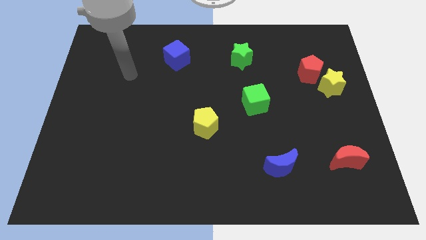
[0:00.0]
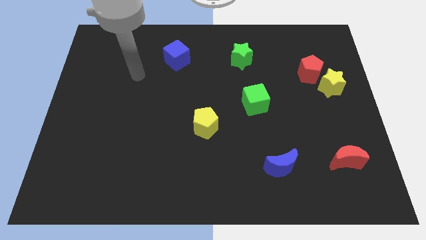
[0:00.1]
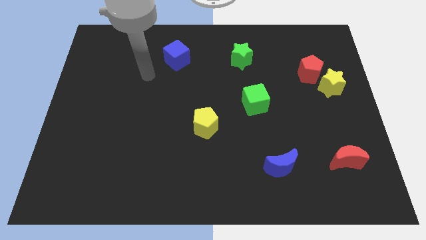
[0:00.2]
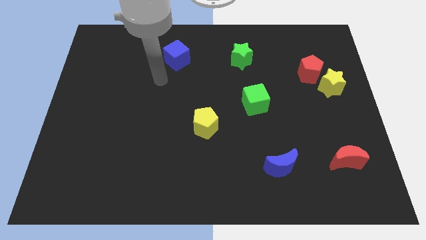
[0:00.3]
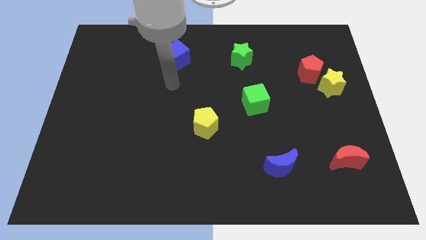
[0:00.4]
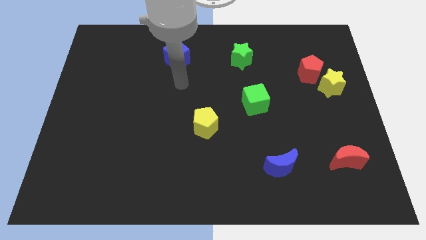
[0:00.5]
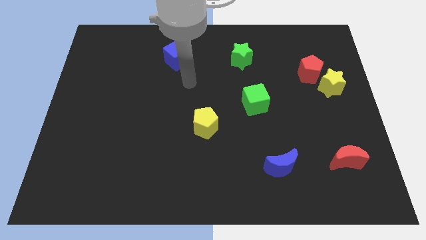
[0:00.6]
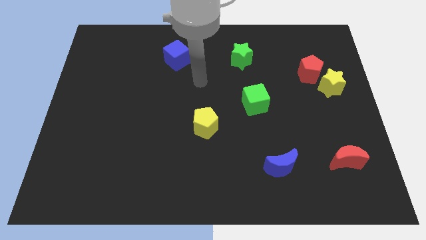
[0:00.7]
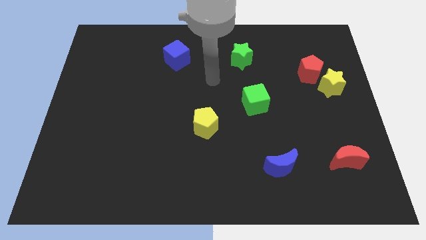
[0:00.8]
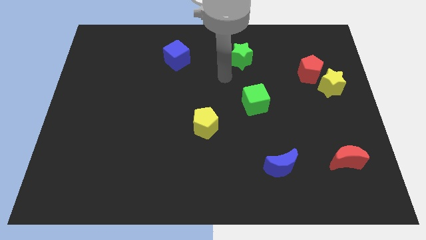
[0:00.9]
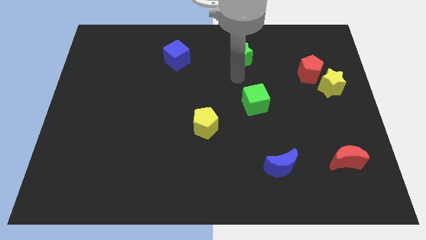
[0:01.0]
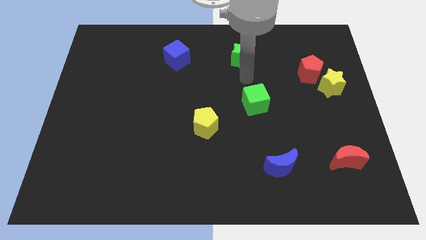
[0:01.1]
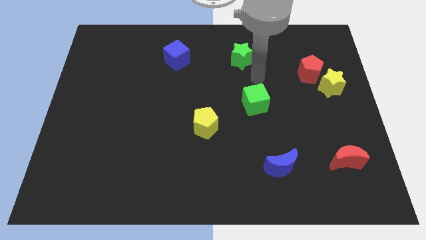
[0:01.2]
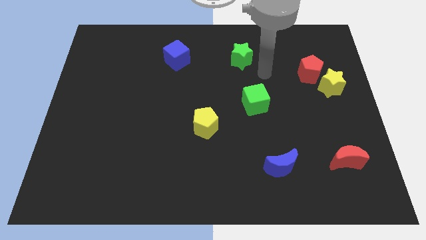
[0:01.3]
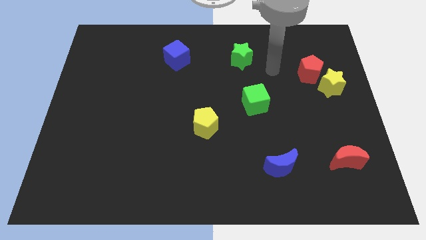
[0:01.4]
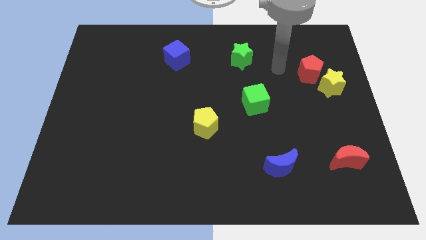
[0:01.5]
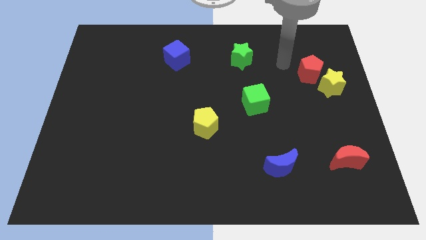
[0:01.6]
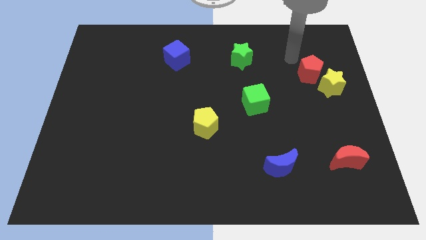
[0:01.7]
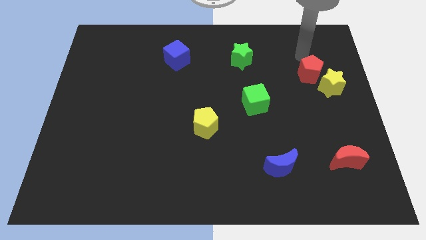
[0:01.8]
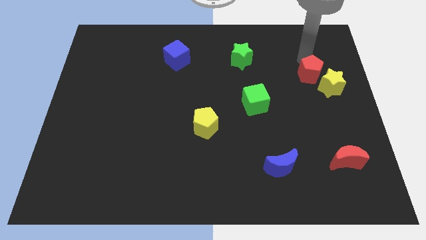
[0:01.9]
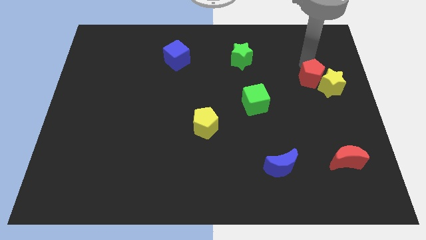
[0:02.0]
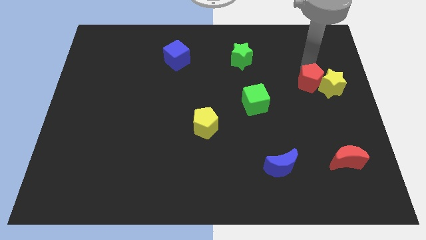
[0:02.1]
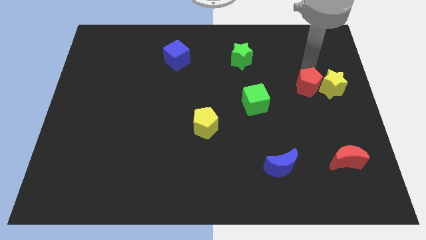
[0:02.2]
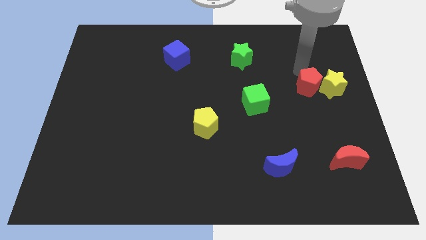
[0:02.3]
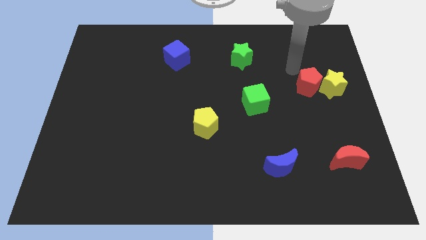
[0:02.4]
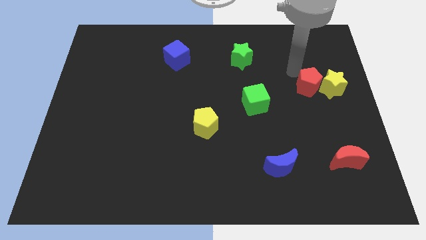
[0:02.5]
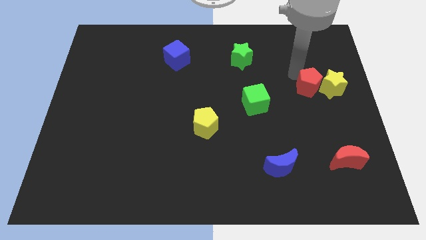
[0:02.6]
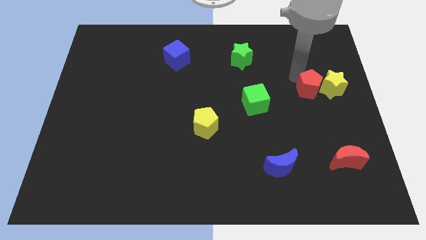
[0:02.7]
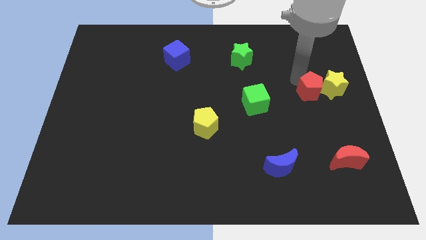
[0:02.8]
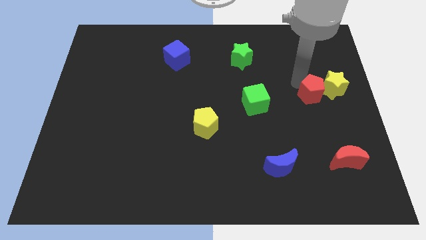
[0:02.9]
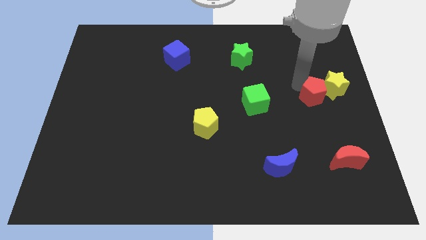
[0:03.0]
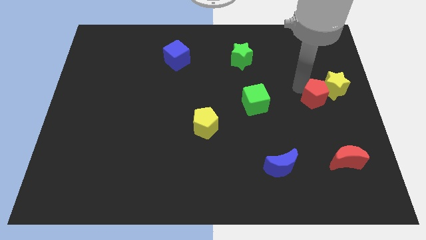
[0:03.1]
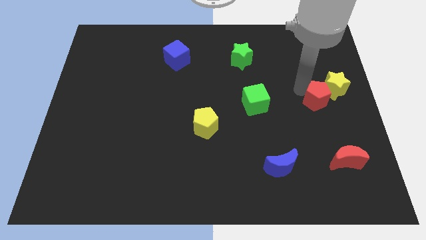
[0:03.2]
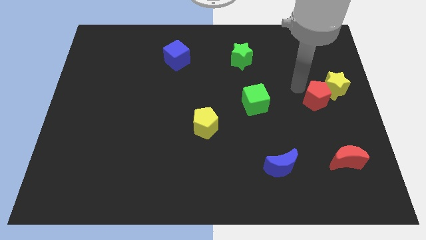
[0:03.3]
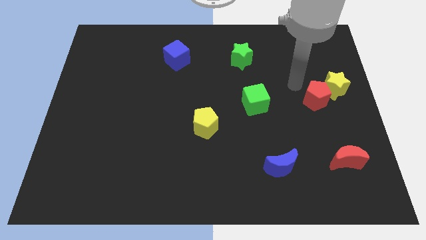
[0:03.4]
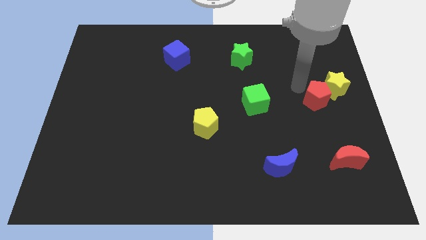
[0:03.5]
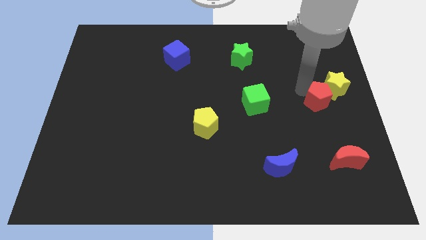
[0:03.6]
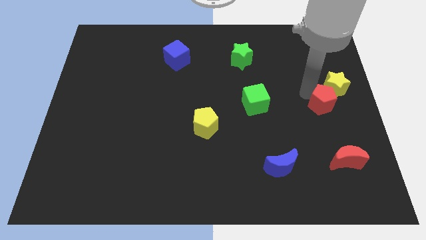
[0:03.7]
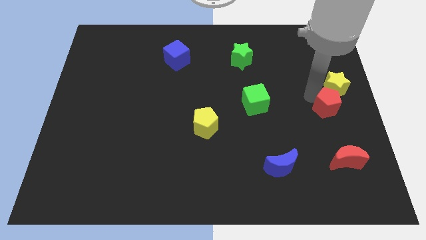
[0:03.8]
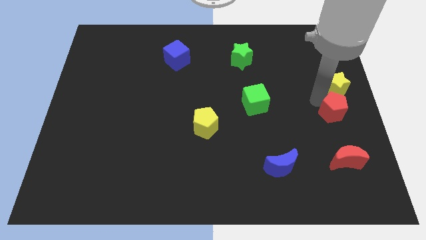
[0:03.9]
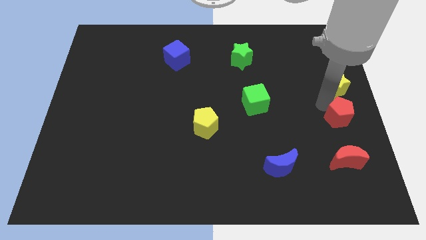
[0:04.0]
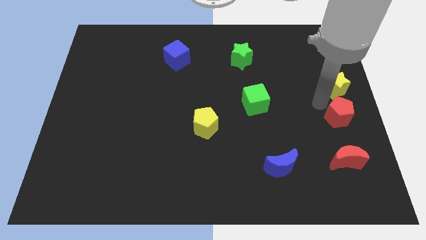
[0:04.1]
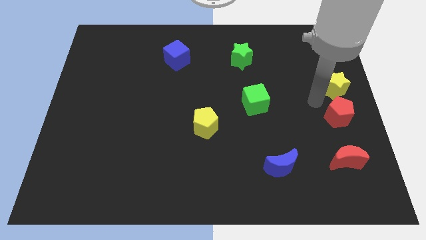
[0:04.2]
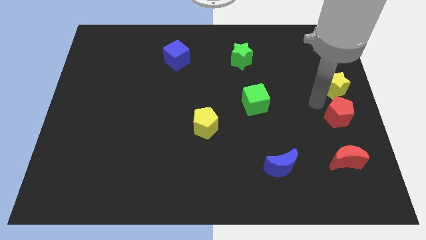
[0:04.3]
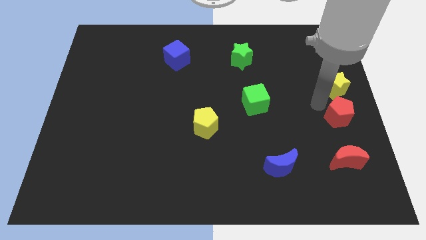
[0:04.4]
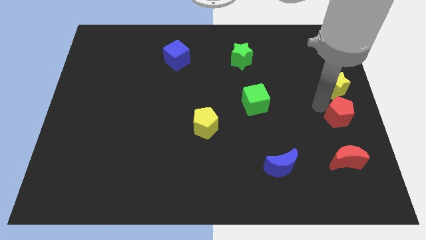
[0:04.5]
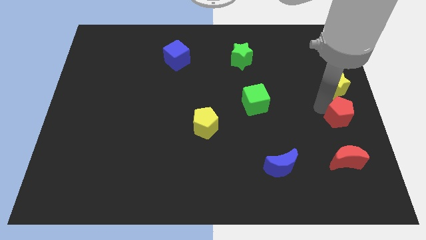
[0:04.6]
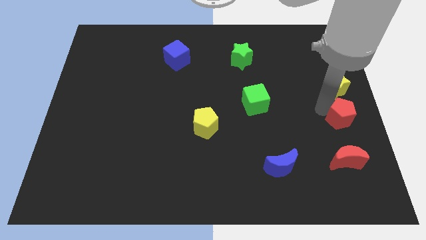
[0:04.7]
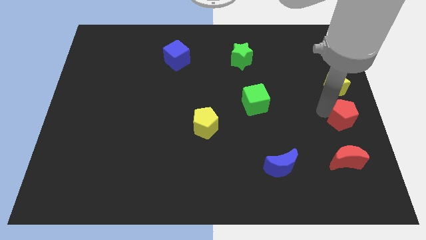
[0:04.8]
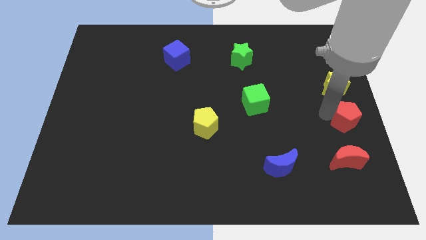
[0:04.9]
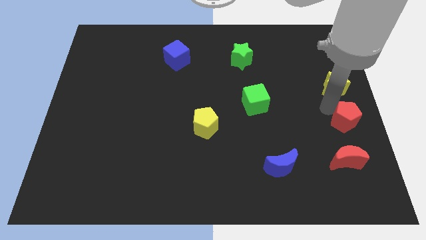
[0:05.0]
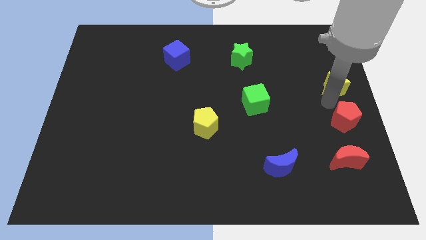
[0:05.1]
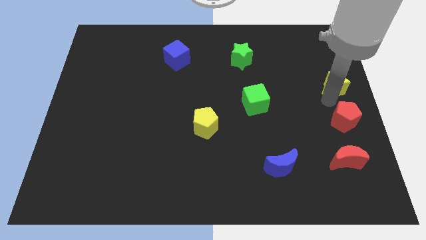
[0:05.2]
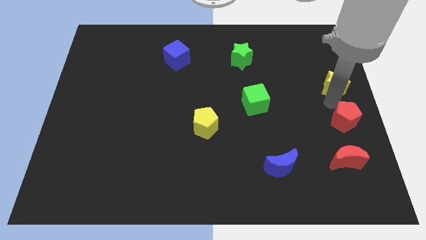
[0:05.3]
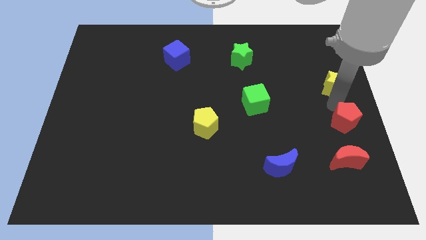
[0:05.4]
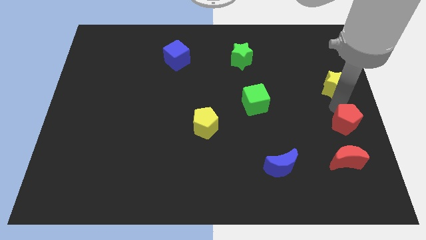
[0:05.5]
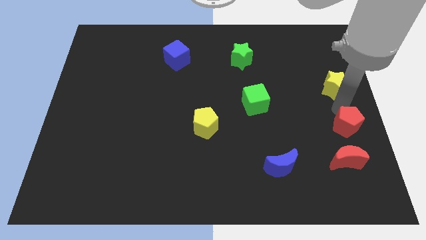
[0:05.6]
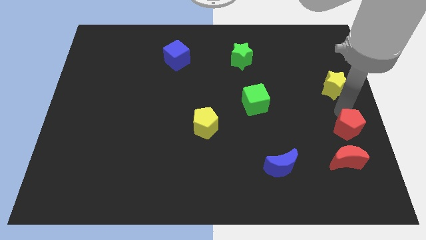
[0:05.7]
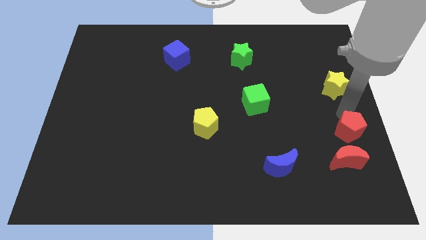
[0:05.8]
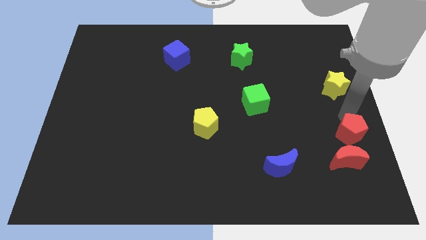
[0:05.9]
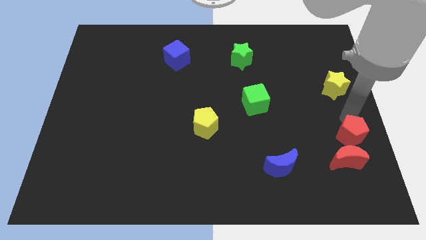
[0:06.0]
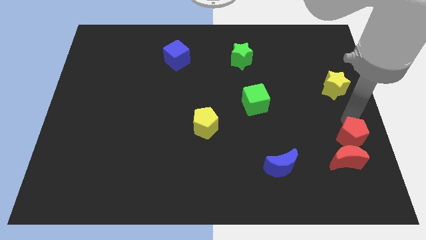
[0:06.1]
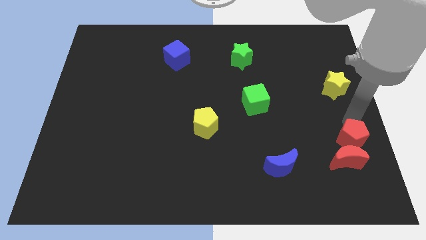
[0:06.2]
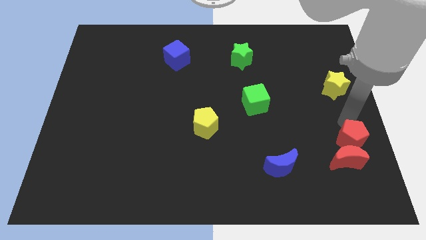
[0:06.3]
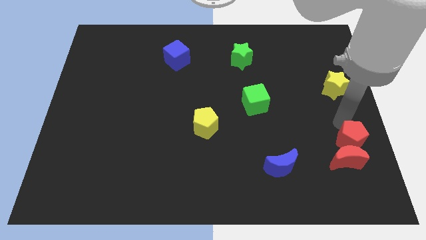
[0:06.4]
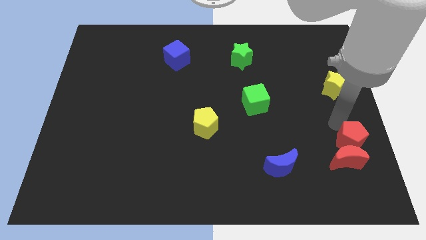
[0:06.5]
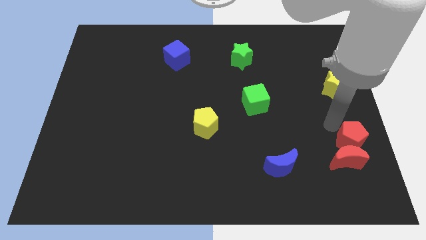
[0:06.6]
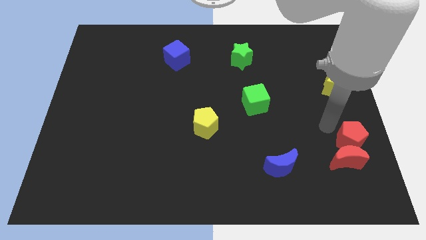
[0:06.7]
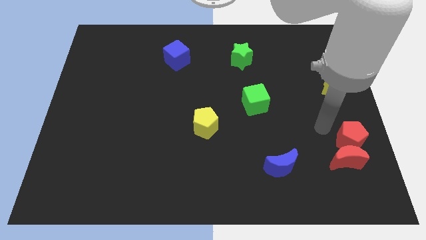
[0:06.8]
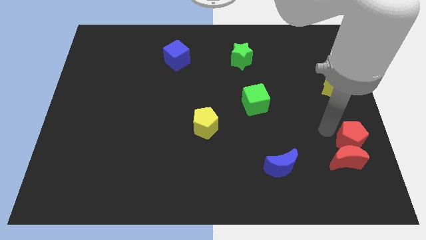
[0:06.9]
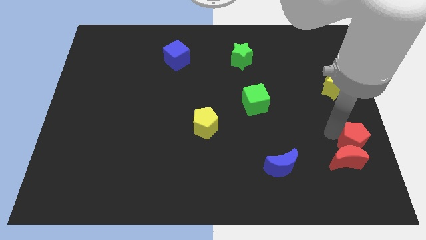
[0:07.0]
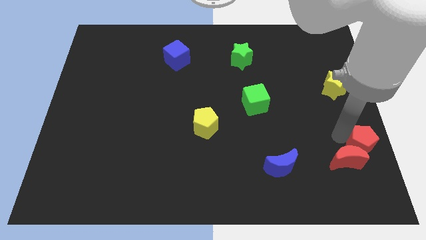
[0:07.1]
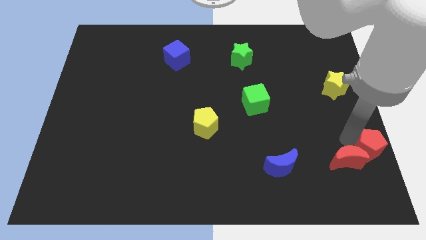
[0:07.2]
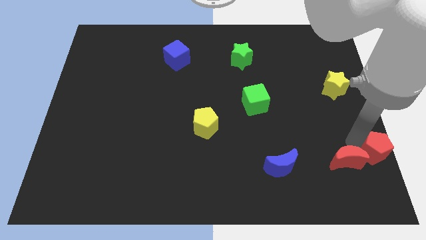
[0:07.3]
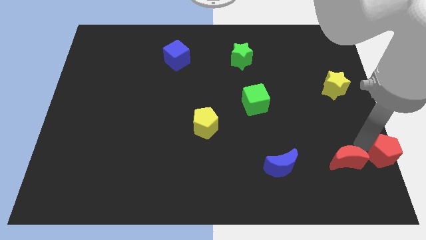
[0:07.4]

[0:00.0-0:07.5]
put the red pentagon to the lower right corner
